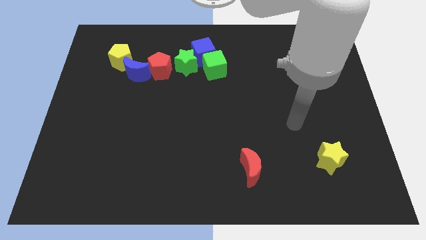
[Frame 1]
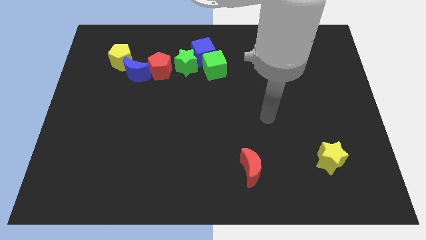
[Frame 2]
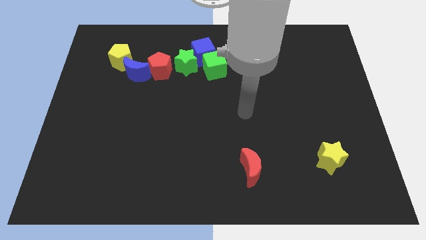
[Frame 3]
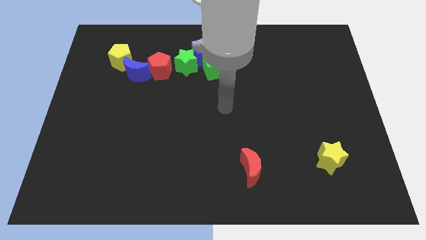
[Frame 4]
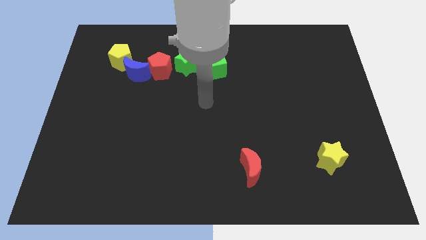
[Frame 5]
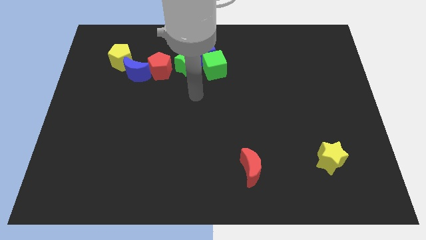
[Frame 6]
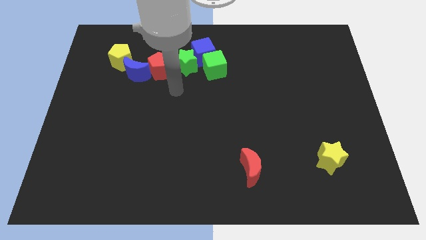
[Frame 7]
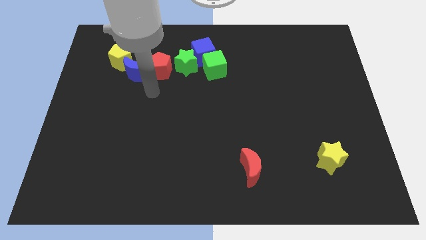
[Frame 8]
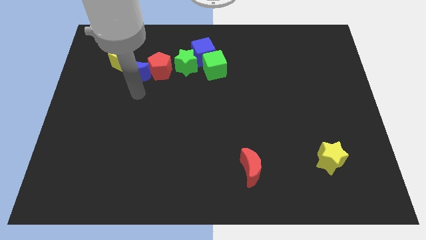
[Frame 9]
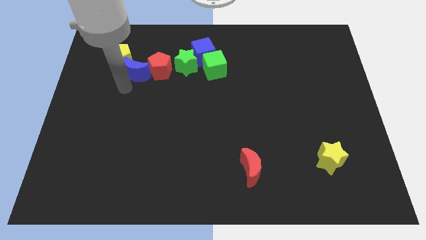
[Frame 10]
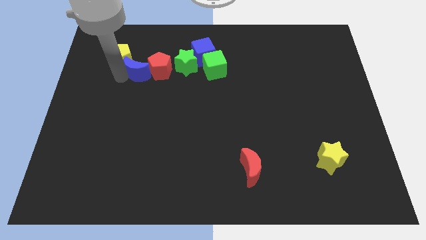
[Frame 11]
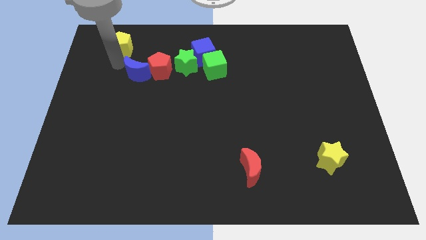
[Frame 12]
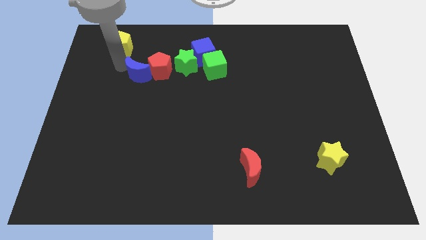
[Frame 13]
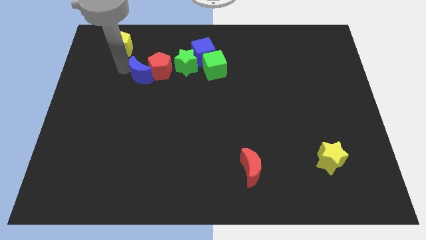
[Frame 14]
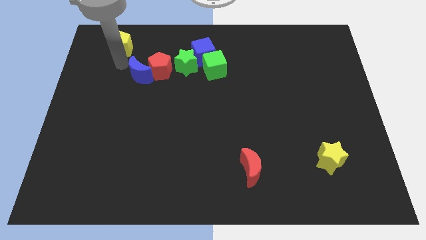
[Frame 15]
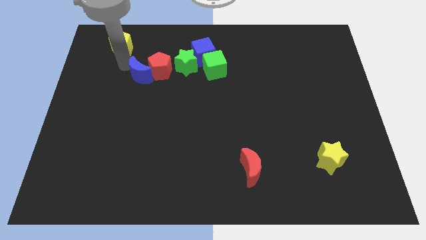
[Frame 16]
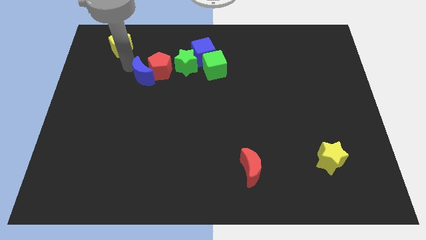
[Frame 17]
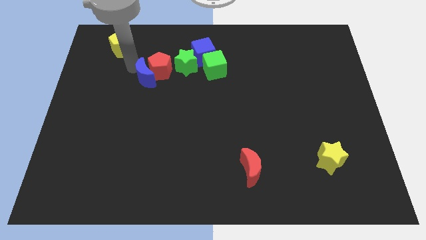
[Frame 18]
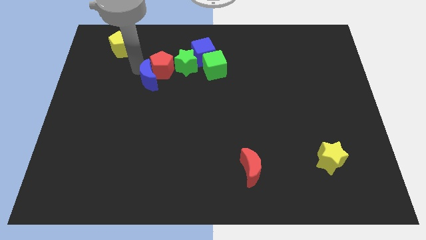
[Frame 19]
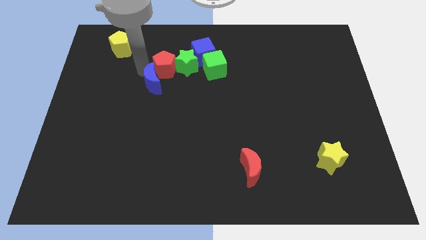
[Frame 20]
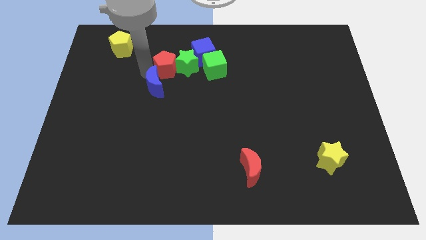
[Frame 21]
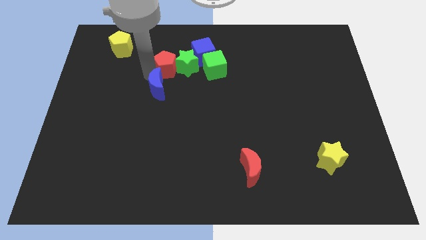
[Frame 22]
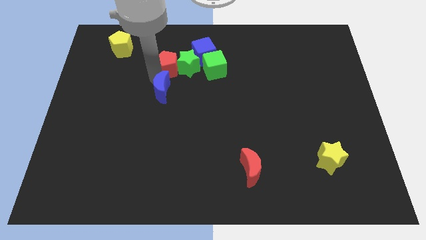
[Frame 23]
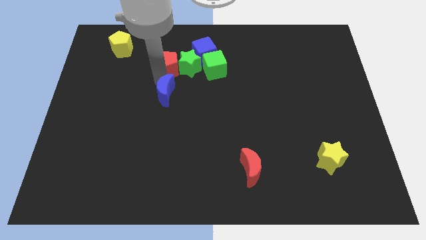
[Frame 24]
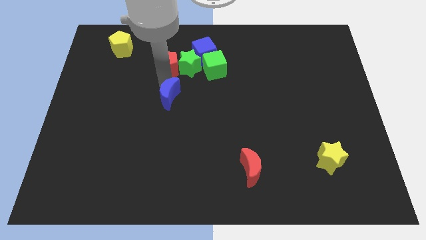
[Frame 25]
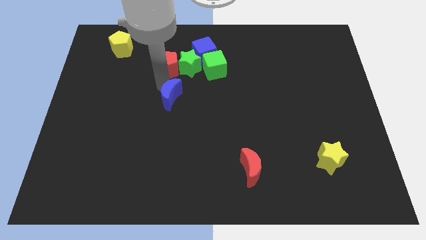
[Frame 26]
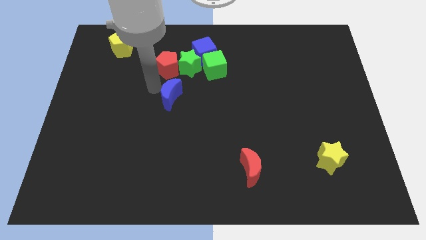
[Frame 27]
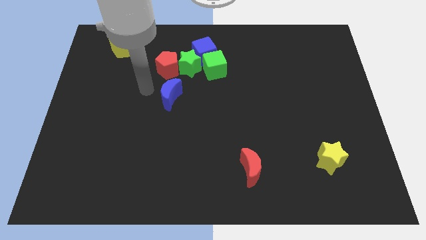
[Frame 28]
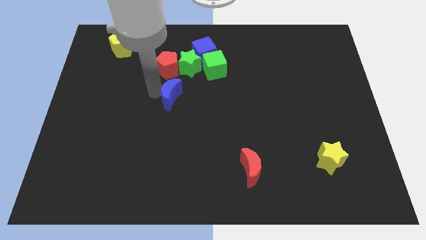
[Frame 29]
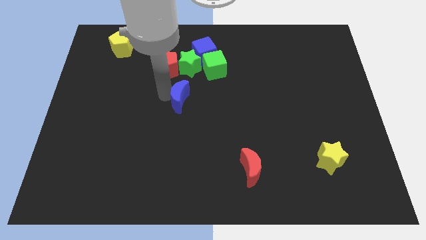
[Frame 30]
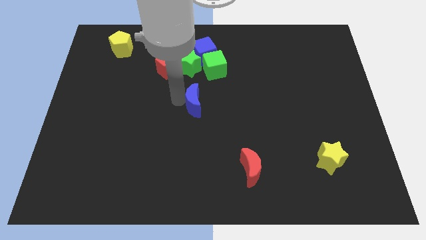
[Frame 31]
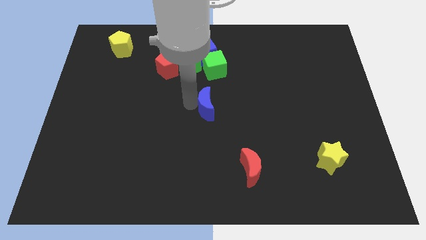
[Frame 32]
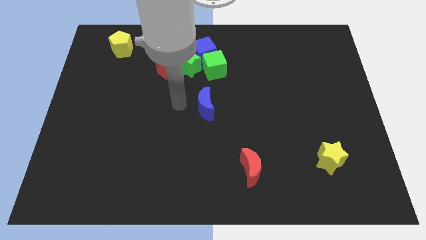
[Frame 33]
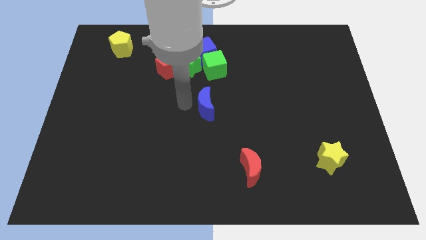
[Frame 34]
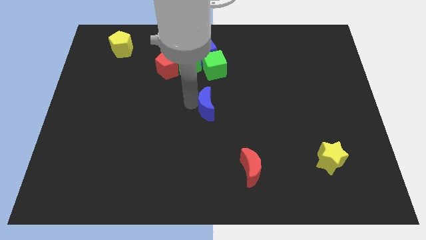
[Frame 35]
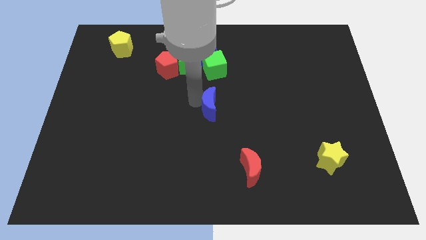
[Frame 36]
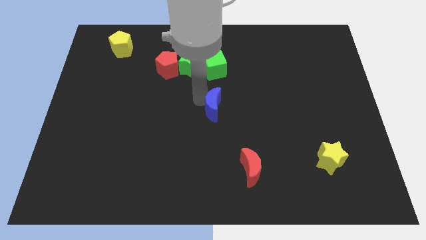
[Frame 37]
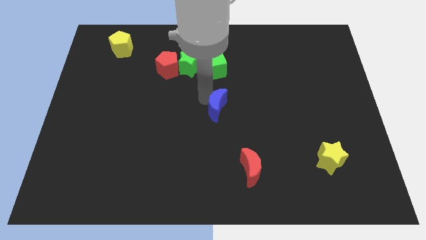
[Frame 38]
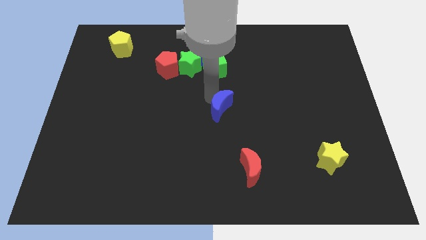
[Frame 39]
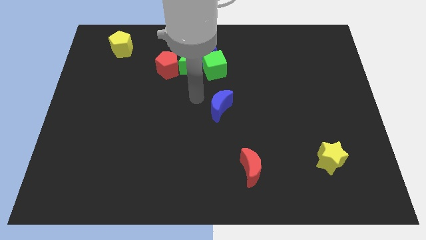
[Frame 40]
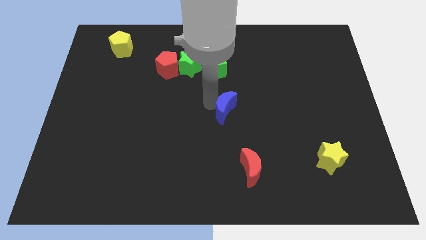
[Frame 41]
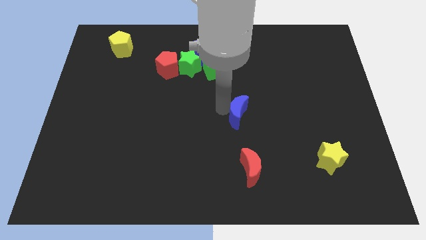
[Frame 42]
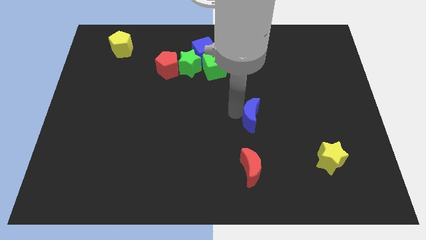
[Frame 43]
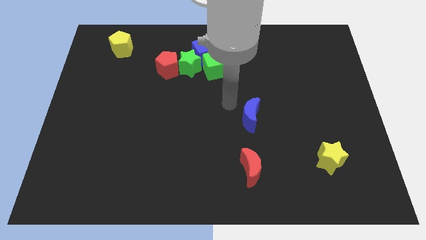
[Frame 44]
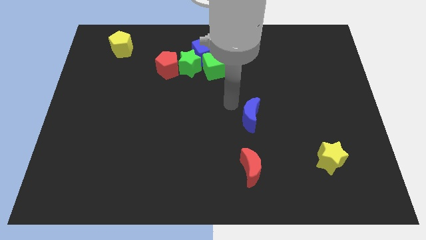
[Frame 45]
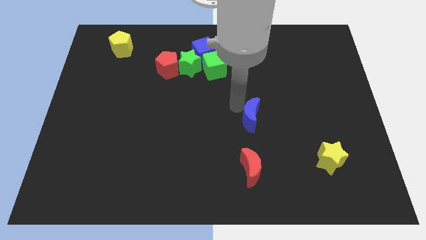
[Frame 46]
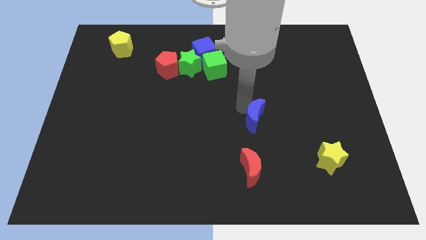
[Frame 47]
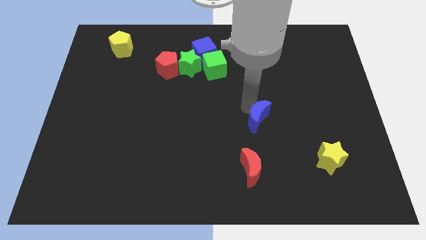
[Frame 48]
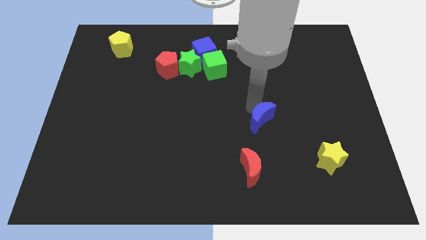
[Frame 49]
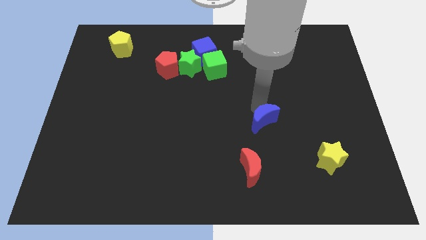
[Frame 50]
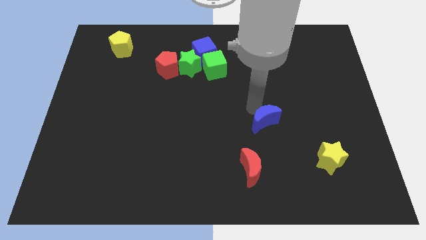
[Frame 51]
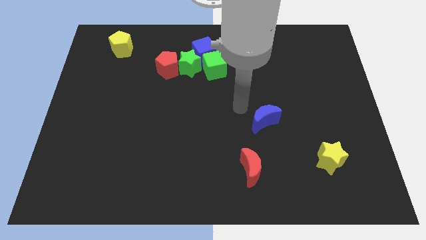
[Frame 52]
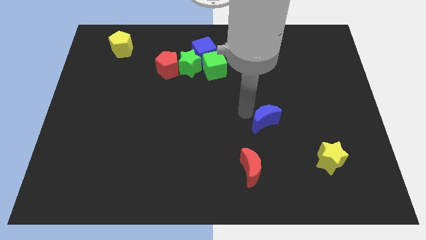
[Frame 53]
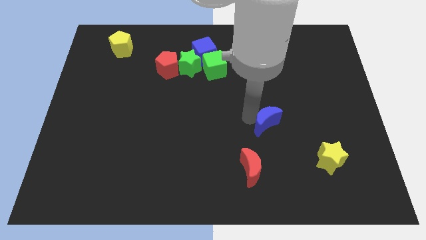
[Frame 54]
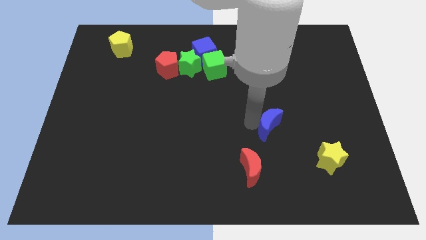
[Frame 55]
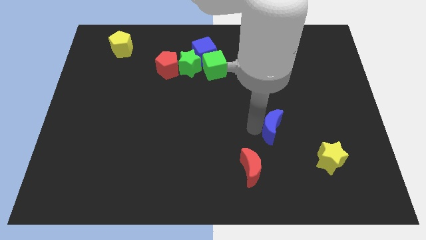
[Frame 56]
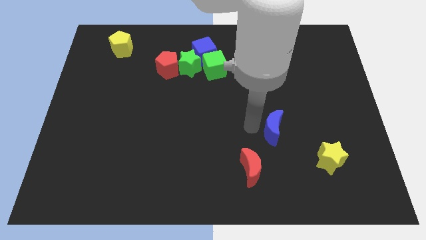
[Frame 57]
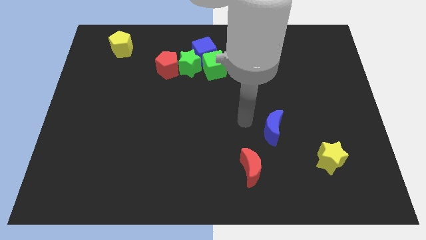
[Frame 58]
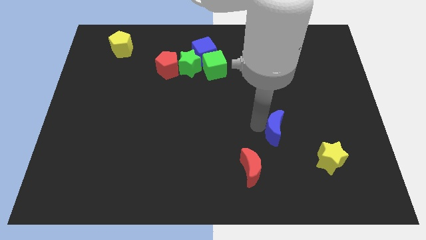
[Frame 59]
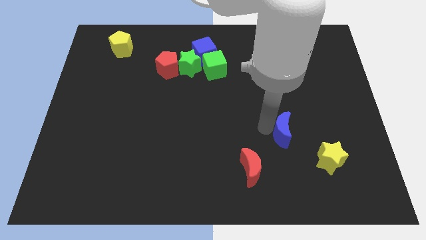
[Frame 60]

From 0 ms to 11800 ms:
push the blue moon diagonally up and to the left of the yellow star

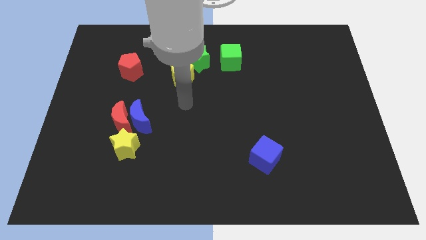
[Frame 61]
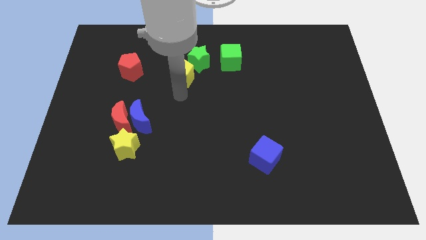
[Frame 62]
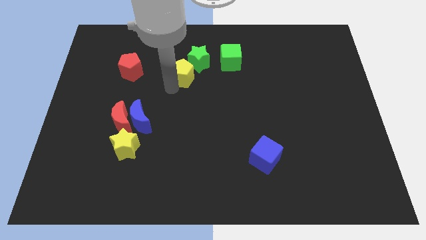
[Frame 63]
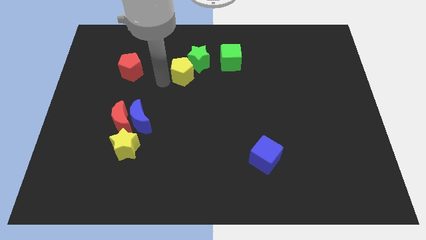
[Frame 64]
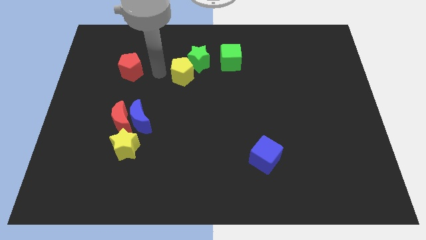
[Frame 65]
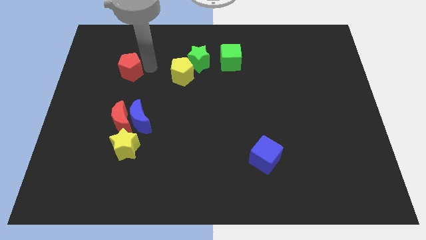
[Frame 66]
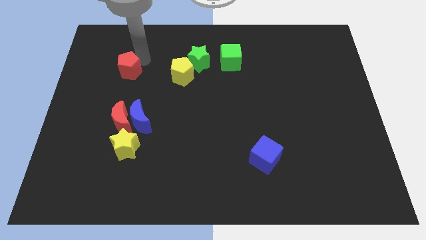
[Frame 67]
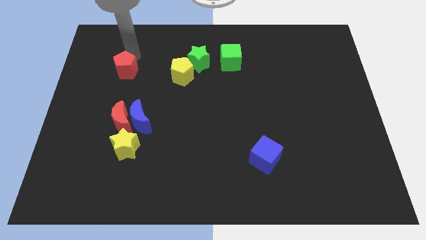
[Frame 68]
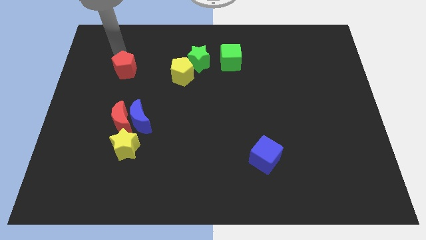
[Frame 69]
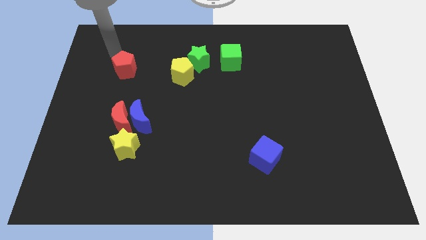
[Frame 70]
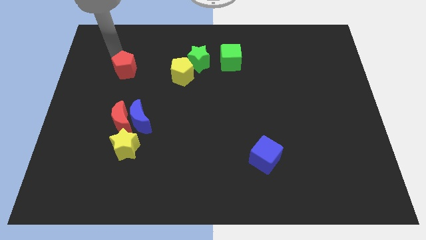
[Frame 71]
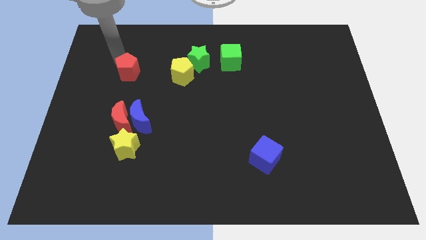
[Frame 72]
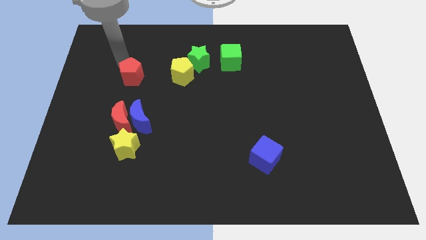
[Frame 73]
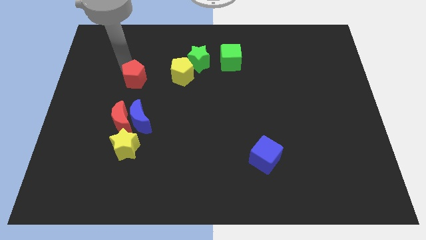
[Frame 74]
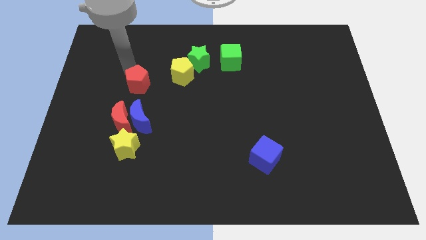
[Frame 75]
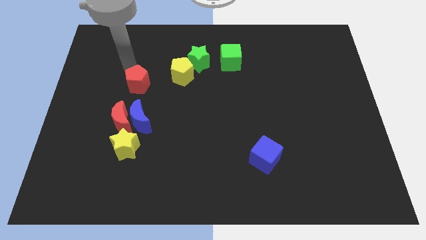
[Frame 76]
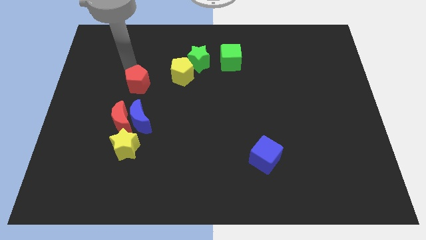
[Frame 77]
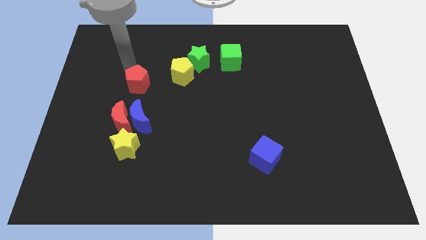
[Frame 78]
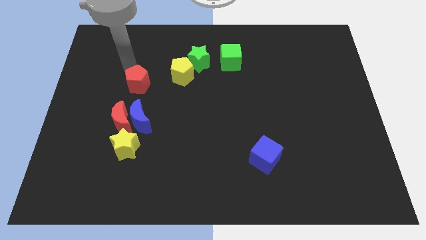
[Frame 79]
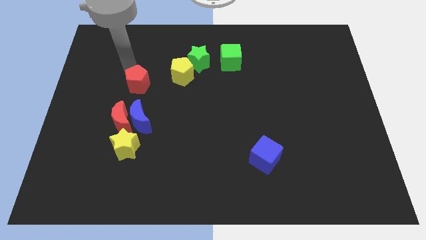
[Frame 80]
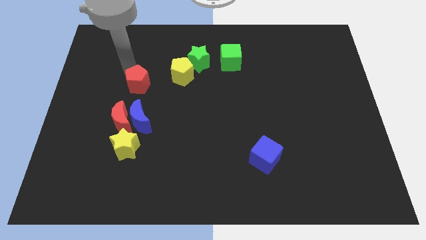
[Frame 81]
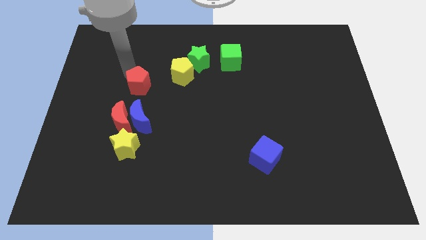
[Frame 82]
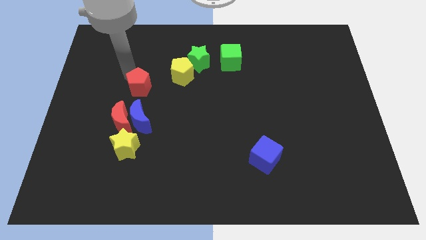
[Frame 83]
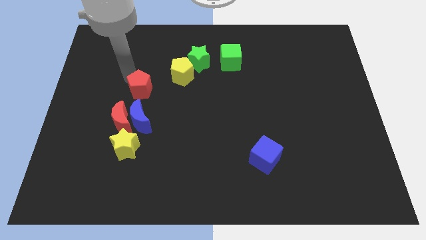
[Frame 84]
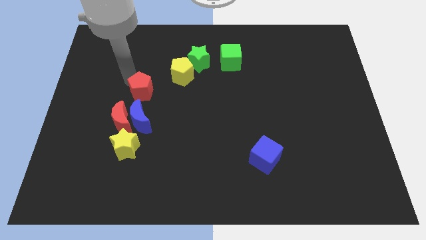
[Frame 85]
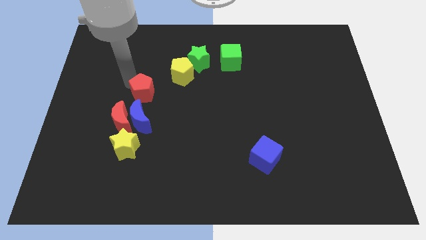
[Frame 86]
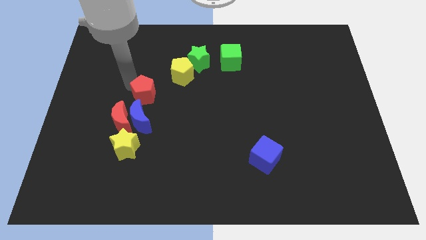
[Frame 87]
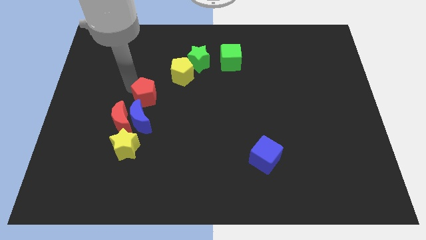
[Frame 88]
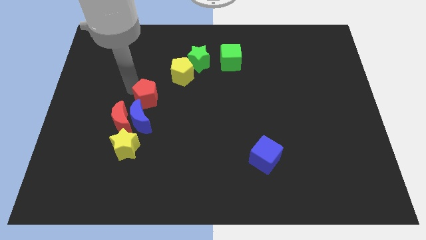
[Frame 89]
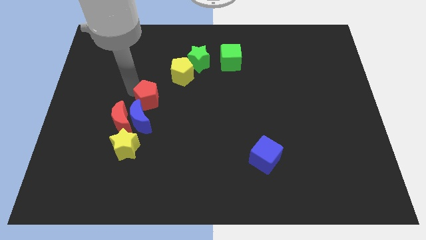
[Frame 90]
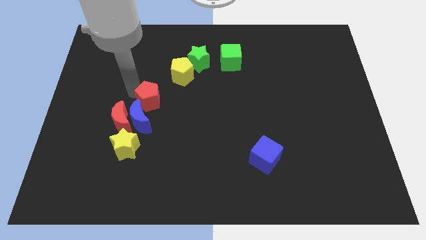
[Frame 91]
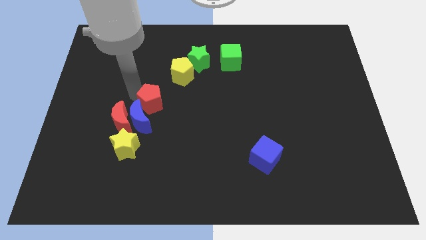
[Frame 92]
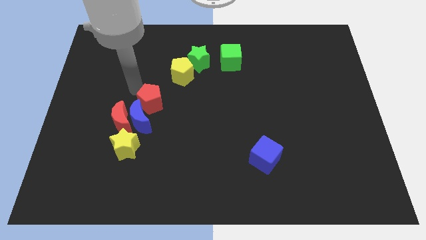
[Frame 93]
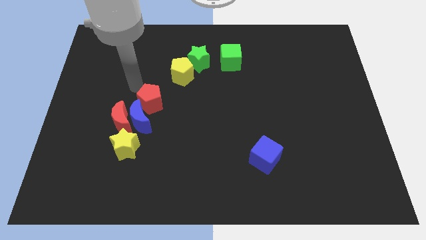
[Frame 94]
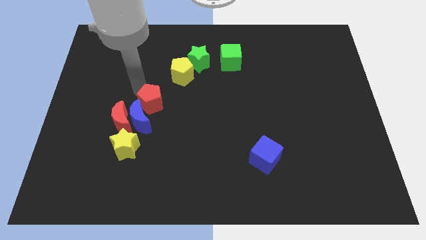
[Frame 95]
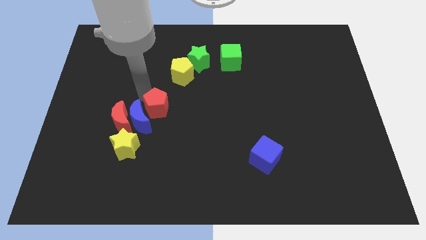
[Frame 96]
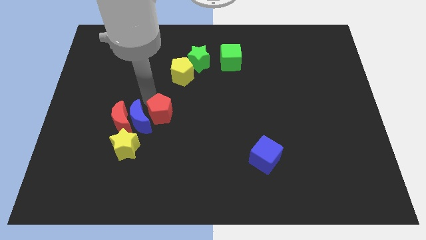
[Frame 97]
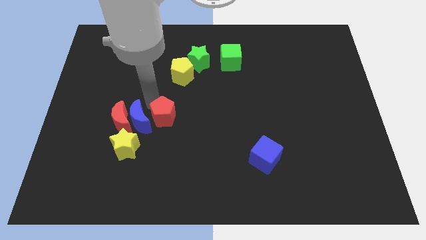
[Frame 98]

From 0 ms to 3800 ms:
move the red pentagon to the bottom right of the blue moon
